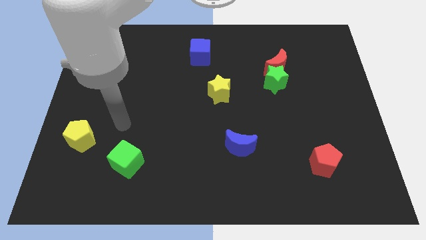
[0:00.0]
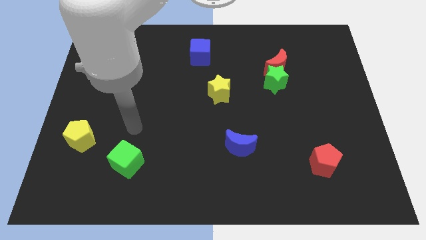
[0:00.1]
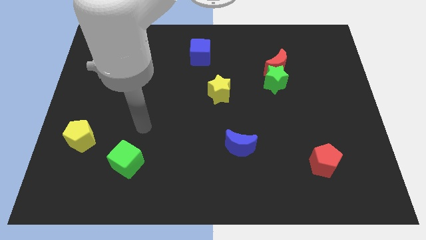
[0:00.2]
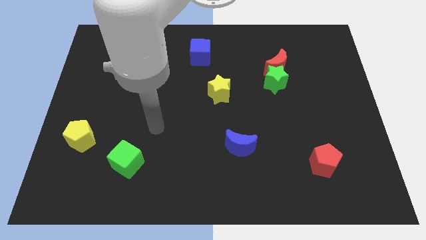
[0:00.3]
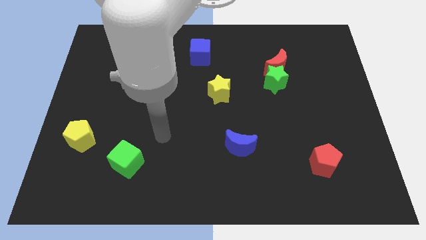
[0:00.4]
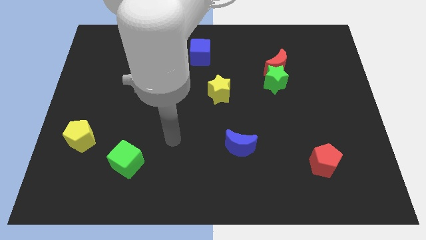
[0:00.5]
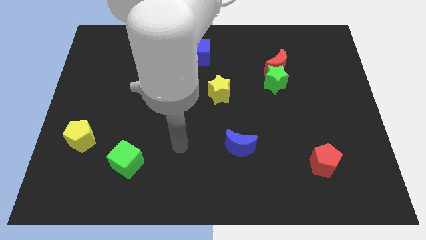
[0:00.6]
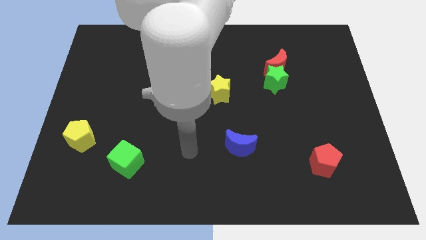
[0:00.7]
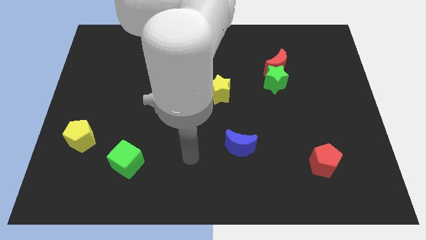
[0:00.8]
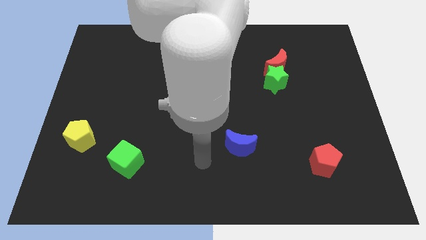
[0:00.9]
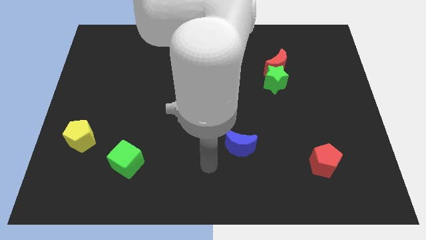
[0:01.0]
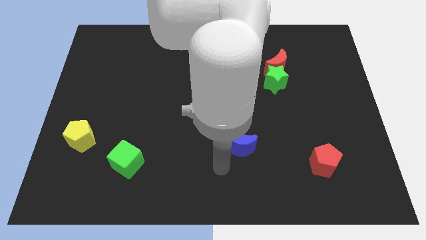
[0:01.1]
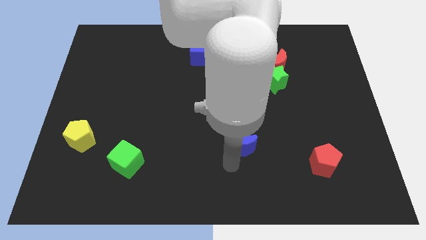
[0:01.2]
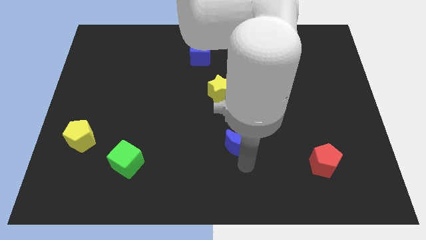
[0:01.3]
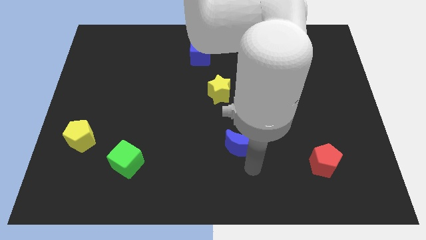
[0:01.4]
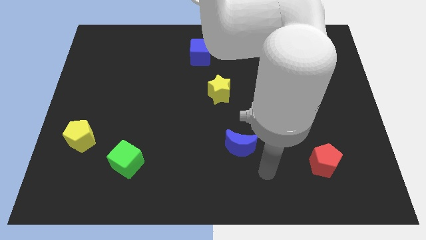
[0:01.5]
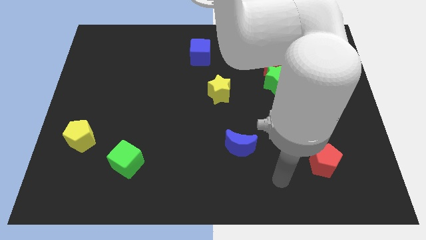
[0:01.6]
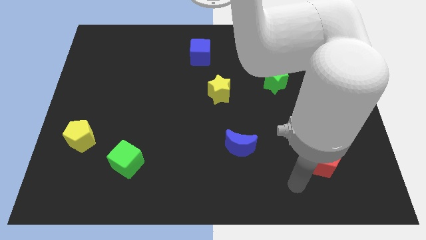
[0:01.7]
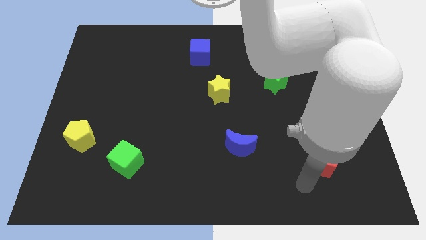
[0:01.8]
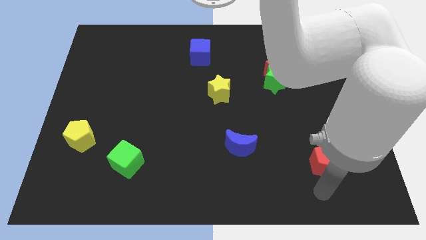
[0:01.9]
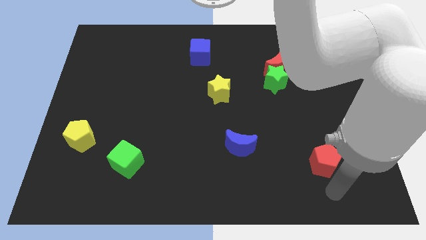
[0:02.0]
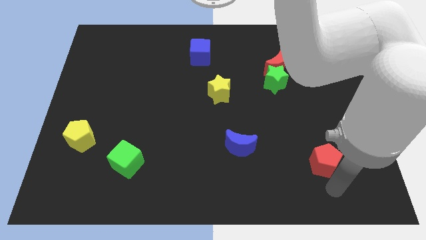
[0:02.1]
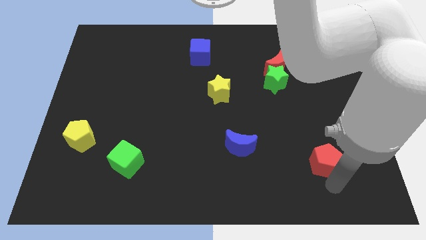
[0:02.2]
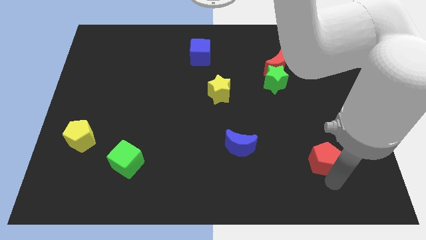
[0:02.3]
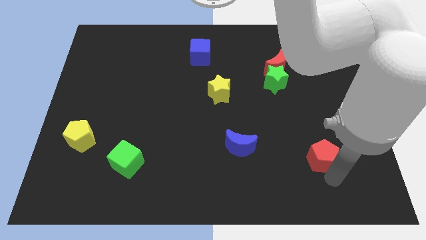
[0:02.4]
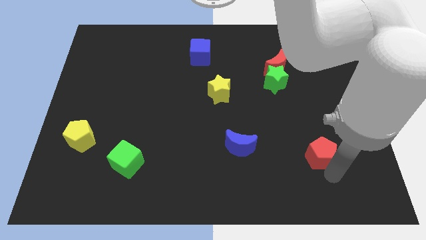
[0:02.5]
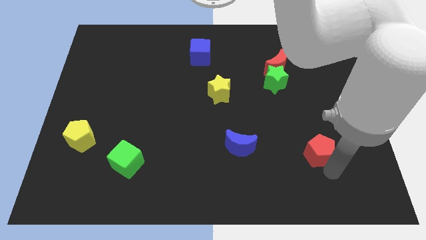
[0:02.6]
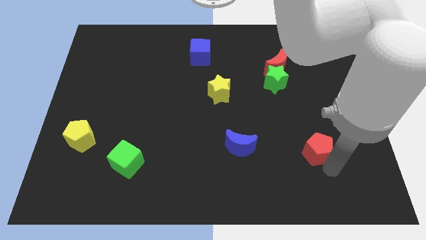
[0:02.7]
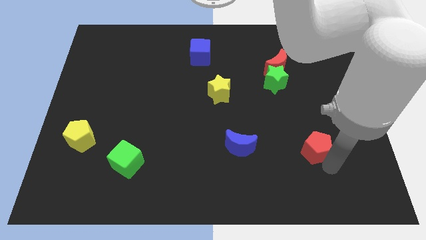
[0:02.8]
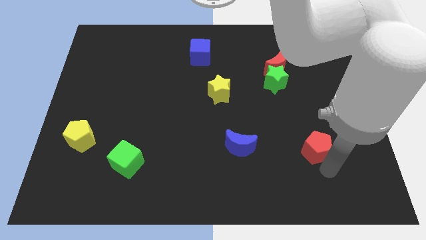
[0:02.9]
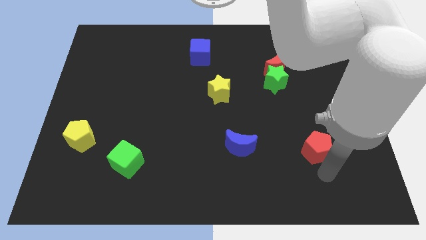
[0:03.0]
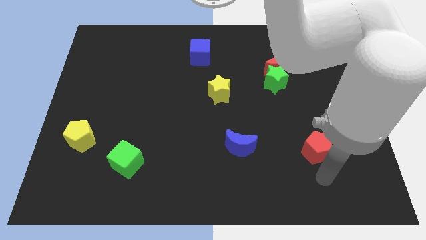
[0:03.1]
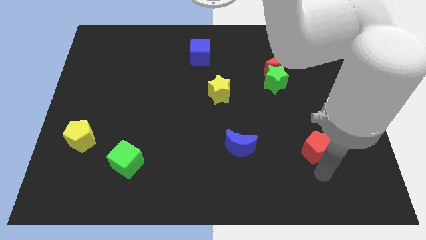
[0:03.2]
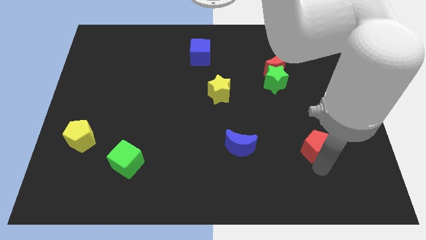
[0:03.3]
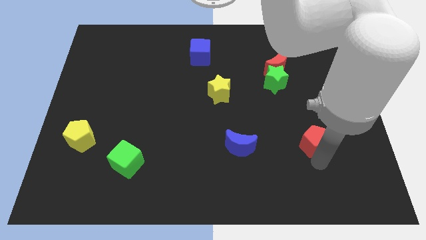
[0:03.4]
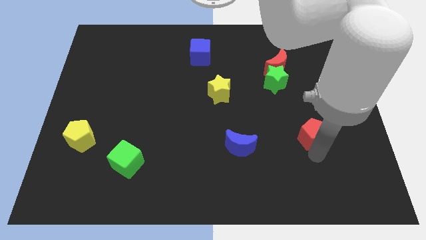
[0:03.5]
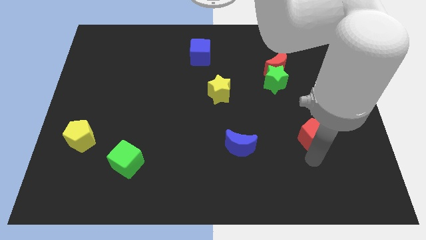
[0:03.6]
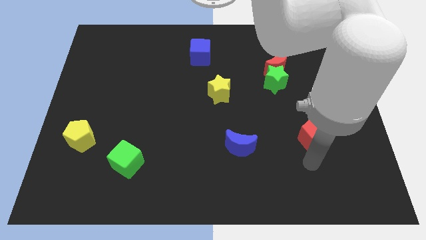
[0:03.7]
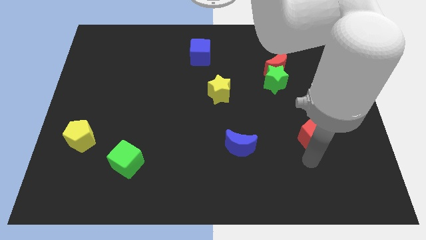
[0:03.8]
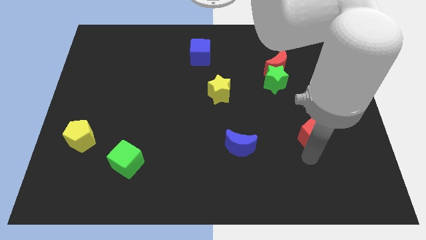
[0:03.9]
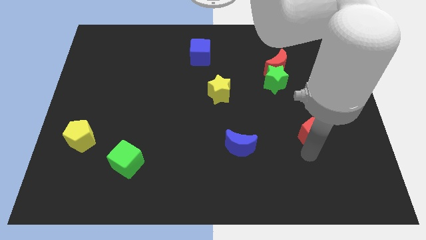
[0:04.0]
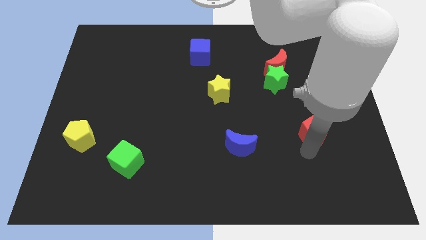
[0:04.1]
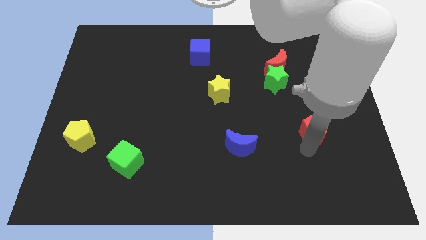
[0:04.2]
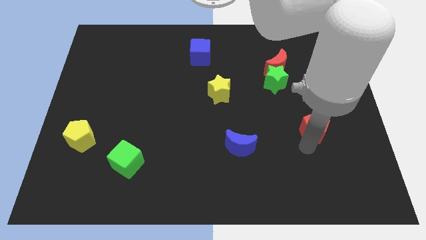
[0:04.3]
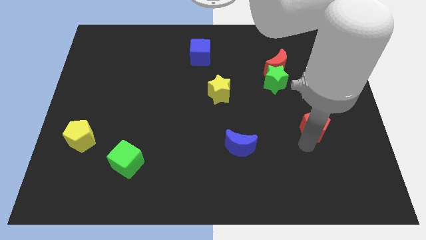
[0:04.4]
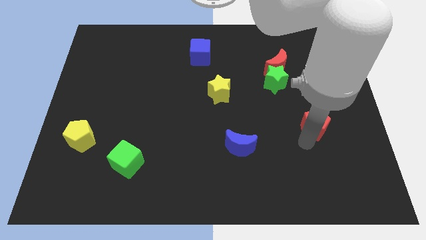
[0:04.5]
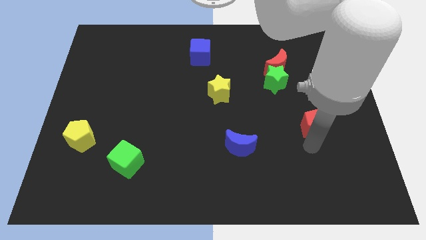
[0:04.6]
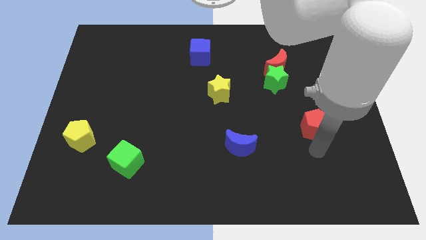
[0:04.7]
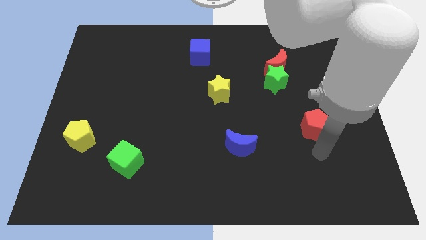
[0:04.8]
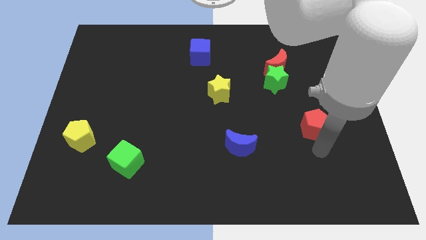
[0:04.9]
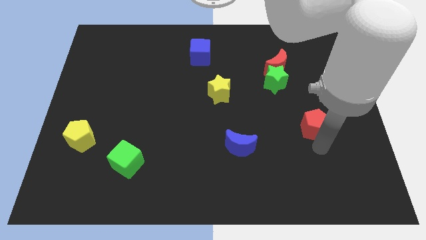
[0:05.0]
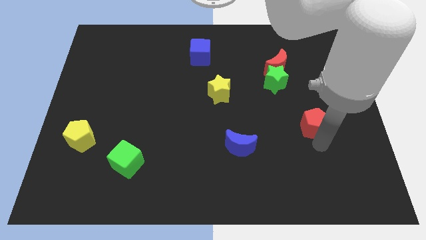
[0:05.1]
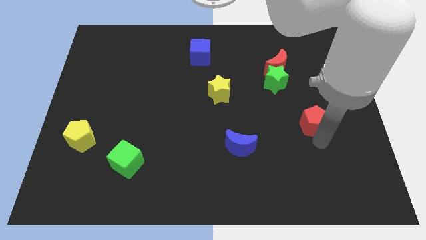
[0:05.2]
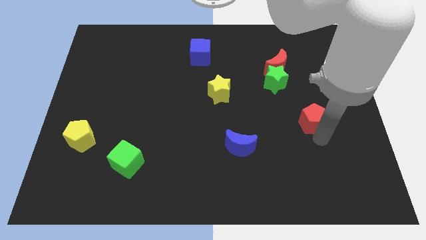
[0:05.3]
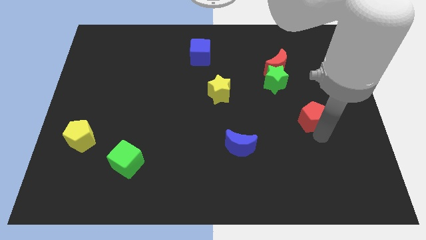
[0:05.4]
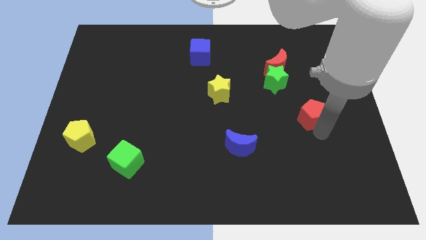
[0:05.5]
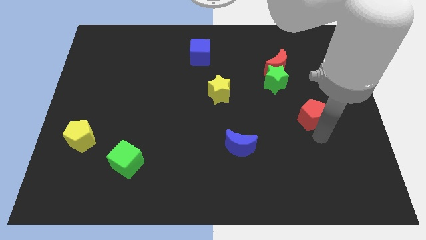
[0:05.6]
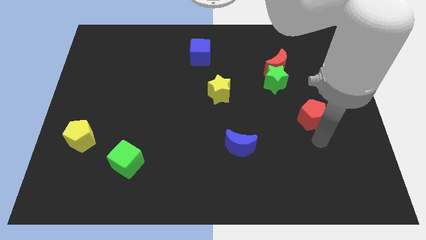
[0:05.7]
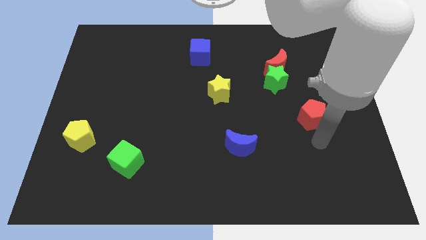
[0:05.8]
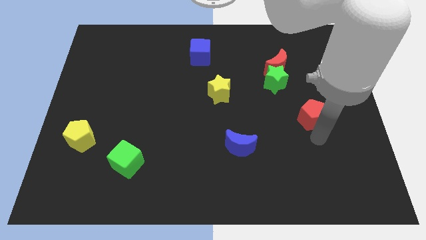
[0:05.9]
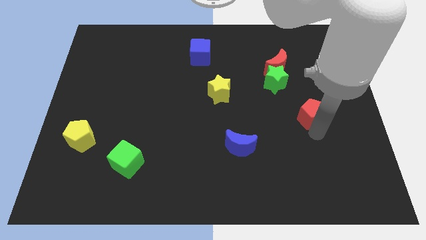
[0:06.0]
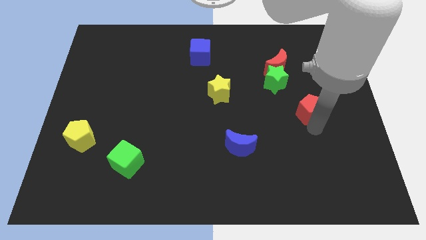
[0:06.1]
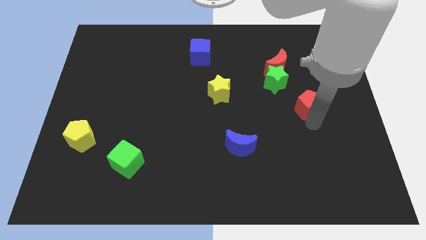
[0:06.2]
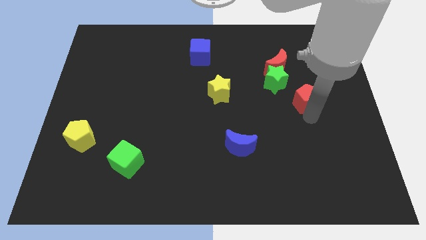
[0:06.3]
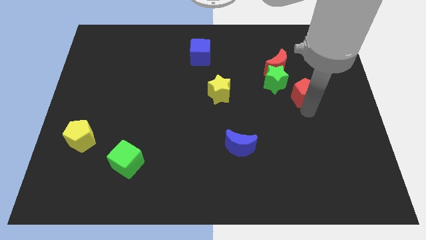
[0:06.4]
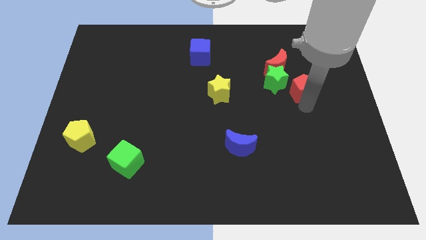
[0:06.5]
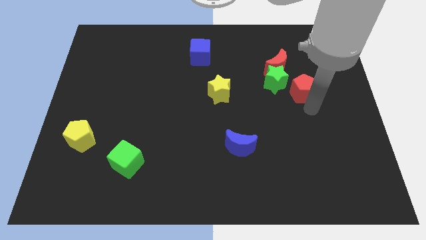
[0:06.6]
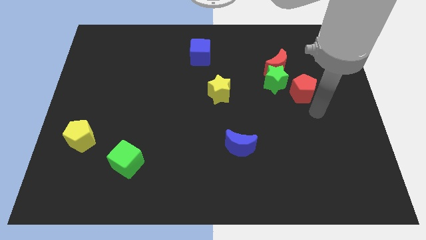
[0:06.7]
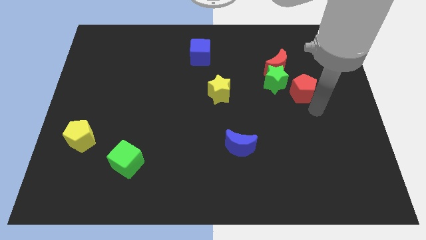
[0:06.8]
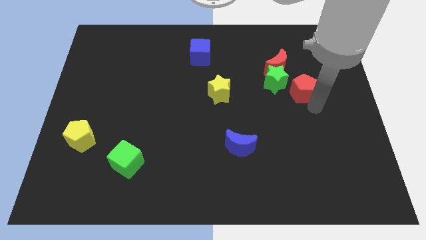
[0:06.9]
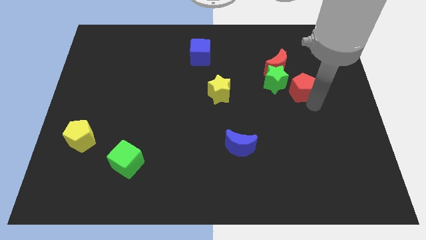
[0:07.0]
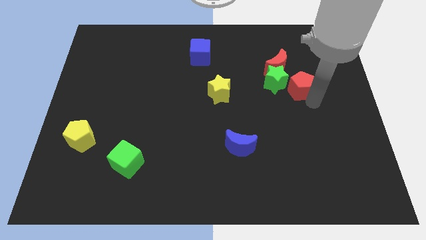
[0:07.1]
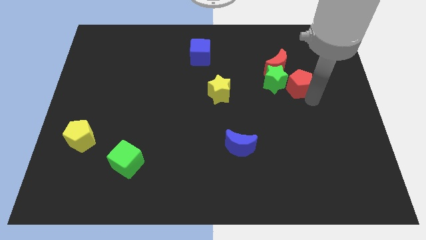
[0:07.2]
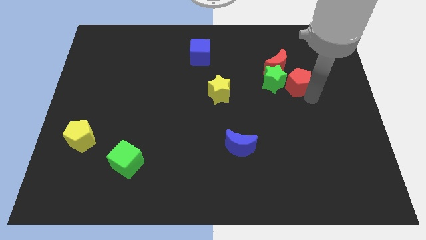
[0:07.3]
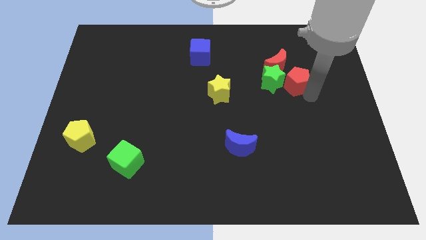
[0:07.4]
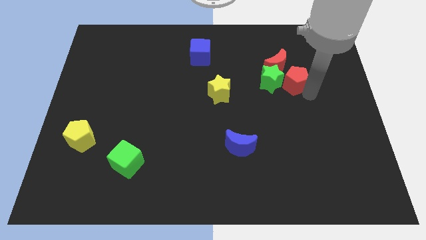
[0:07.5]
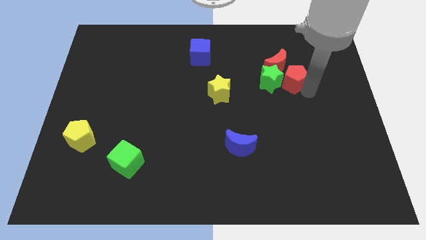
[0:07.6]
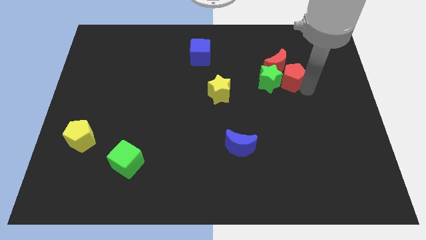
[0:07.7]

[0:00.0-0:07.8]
move the red pentagon towards the red moon
